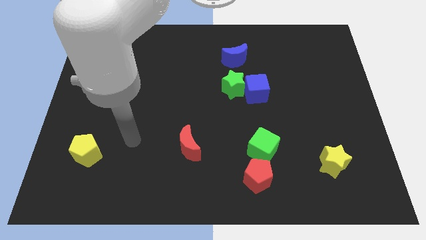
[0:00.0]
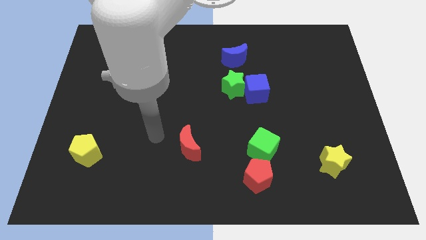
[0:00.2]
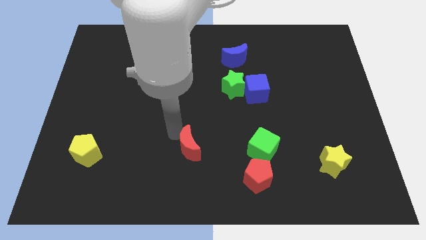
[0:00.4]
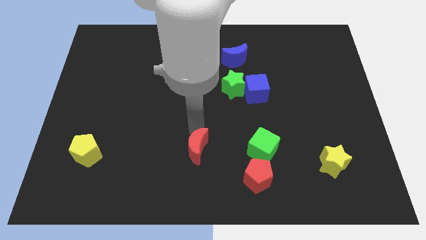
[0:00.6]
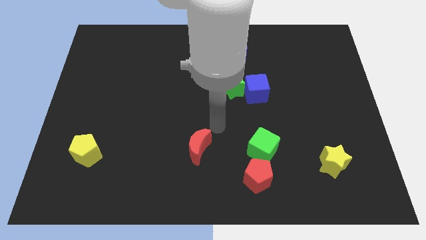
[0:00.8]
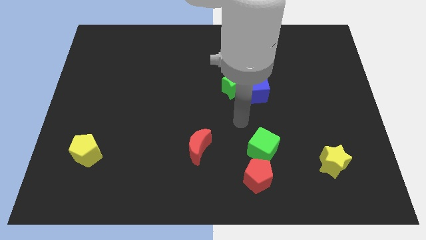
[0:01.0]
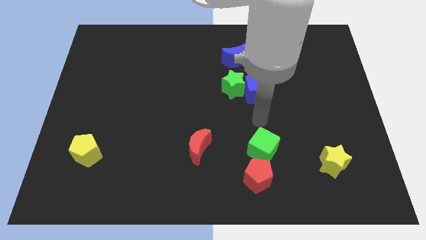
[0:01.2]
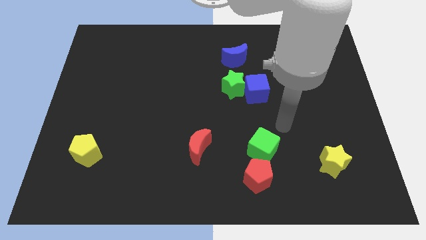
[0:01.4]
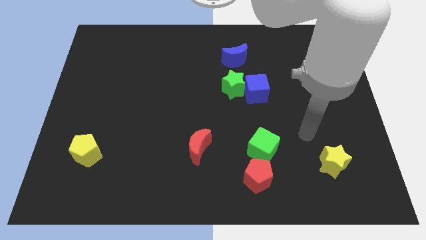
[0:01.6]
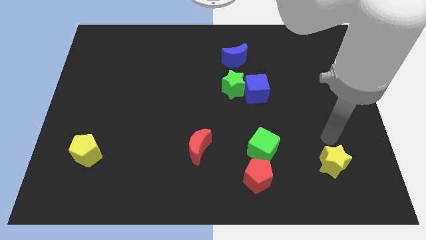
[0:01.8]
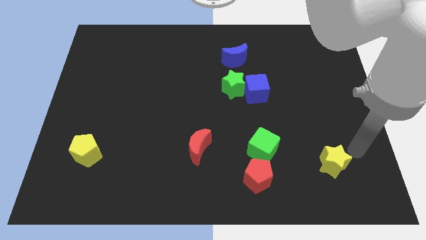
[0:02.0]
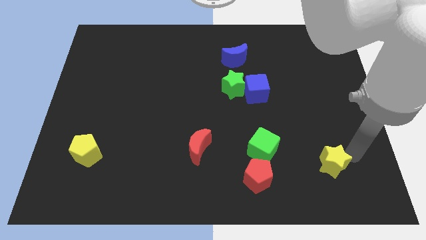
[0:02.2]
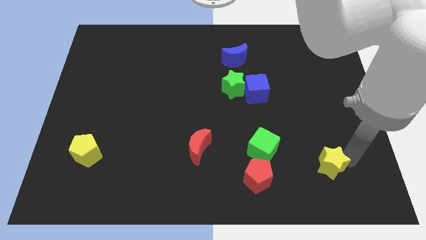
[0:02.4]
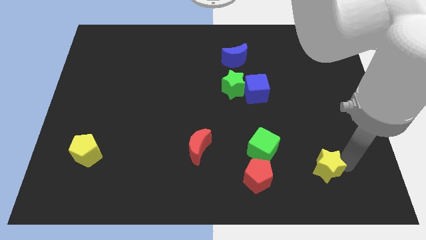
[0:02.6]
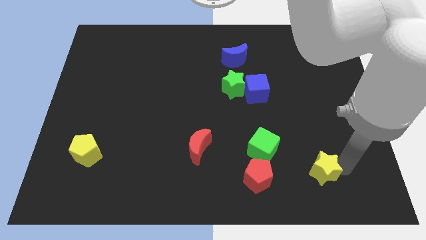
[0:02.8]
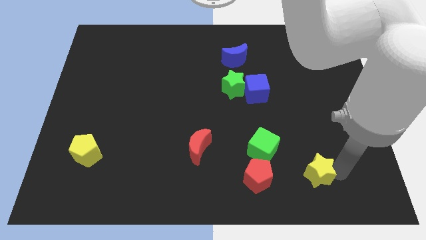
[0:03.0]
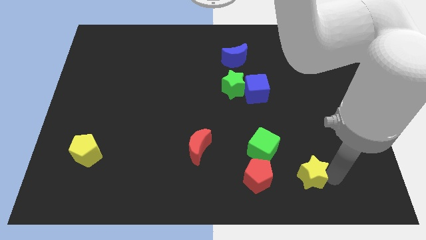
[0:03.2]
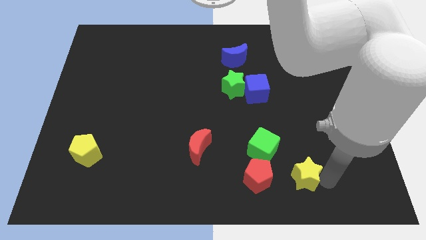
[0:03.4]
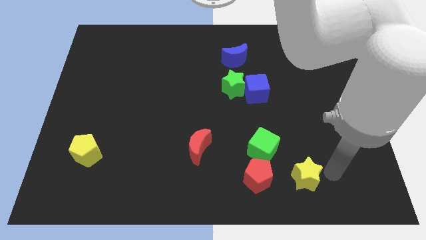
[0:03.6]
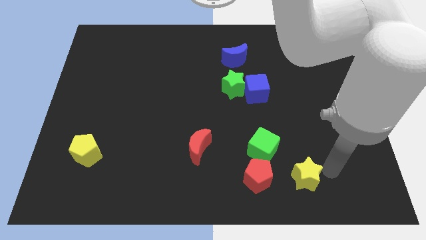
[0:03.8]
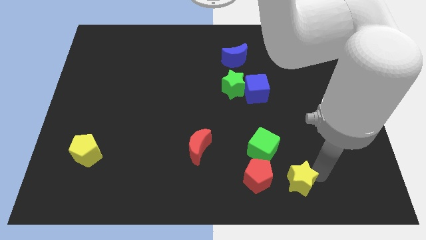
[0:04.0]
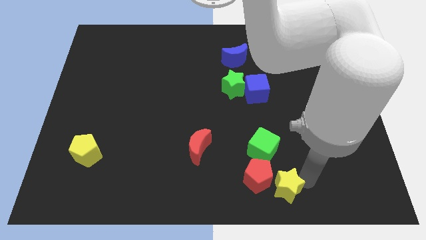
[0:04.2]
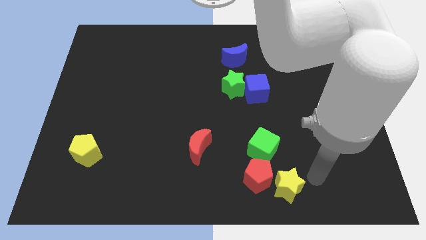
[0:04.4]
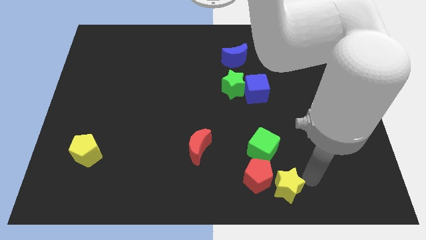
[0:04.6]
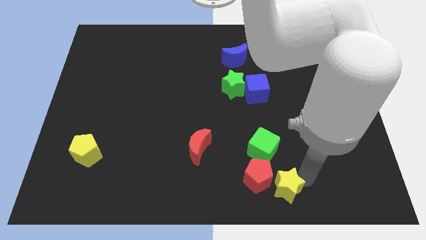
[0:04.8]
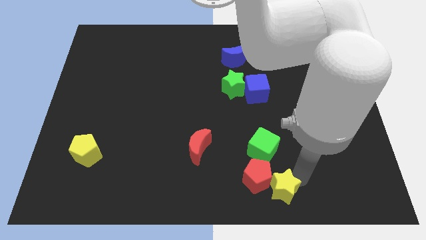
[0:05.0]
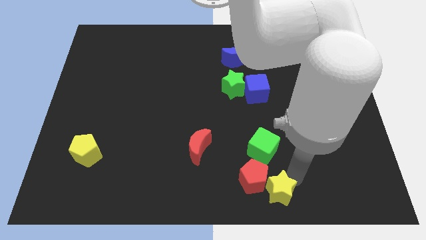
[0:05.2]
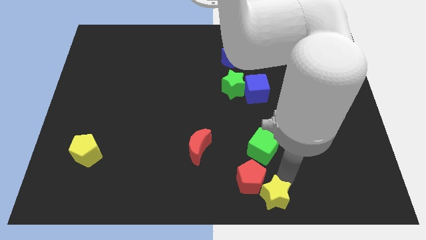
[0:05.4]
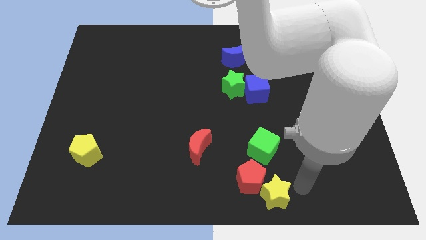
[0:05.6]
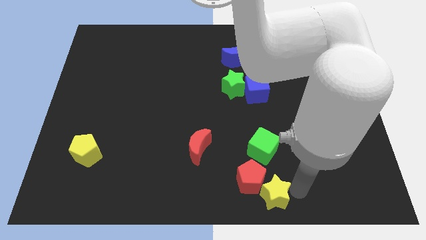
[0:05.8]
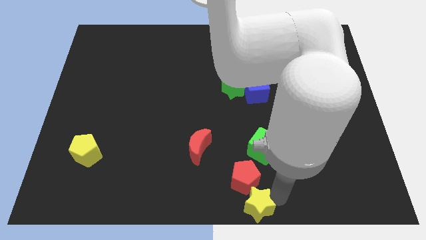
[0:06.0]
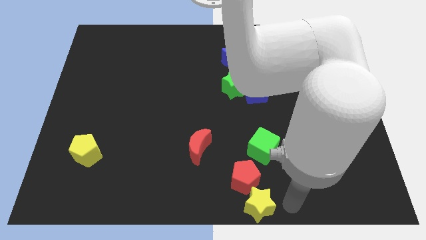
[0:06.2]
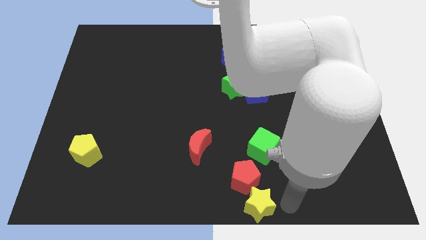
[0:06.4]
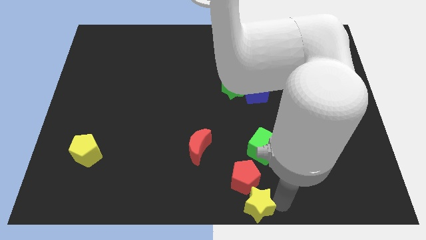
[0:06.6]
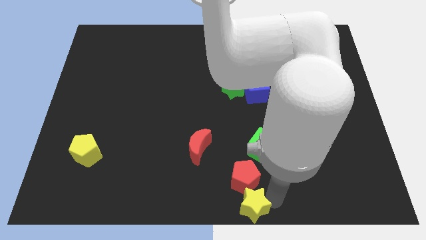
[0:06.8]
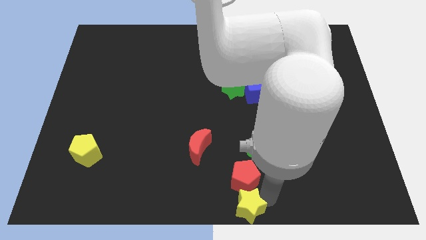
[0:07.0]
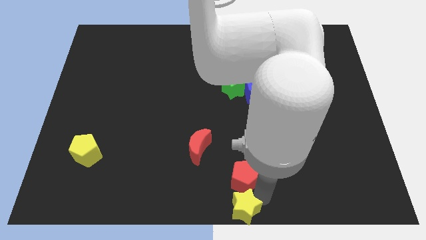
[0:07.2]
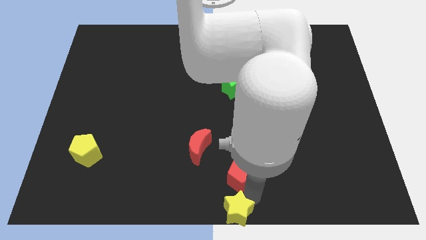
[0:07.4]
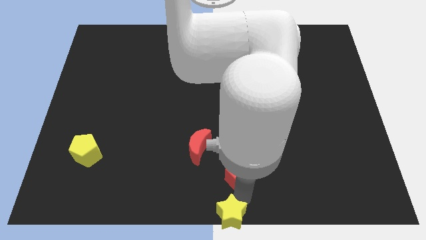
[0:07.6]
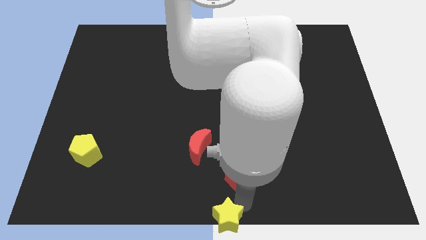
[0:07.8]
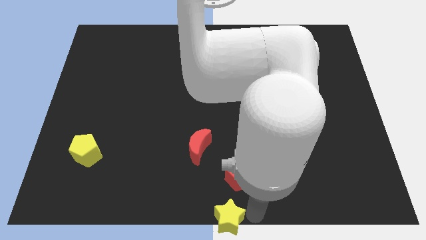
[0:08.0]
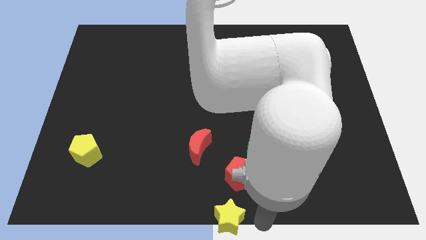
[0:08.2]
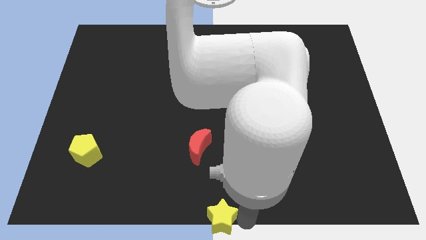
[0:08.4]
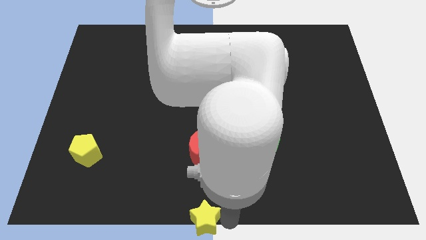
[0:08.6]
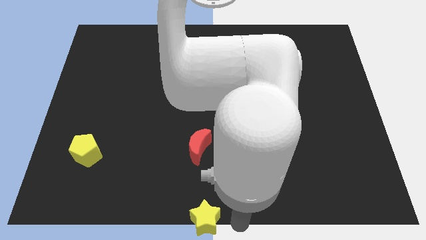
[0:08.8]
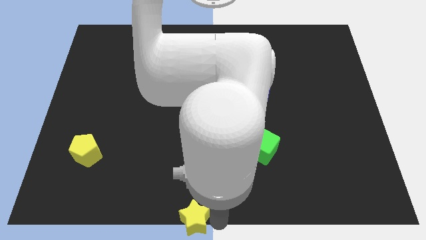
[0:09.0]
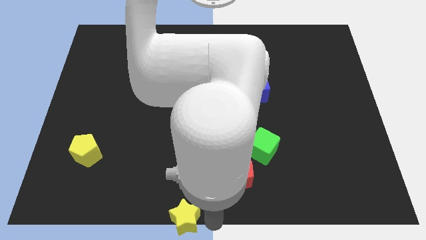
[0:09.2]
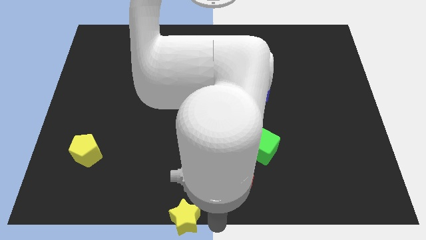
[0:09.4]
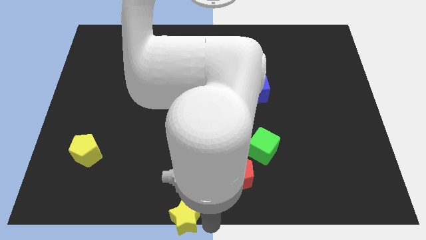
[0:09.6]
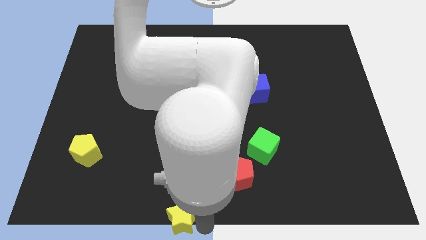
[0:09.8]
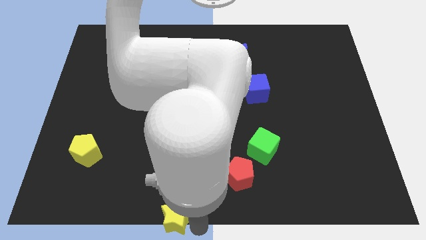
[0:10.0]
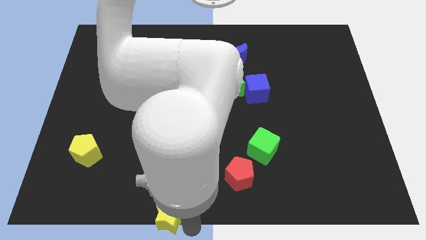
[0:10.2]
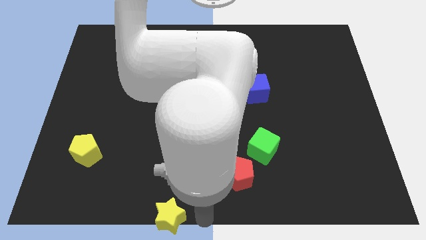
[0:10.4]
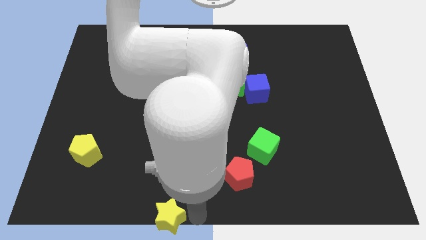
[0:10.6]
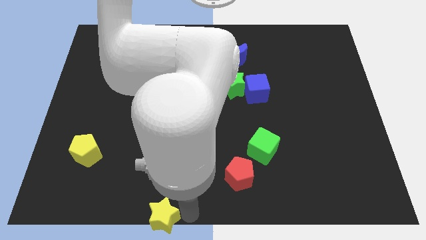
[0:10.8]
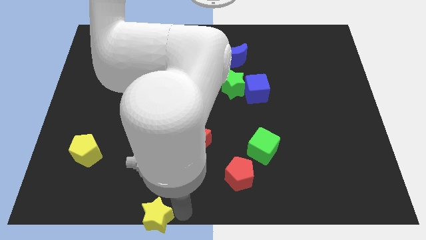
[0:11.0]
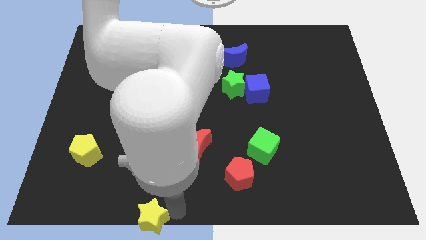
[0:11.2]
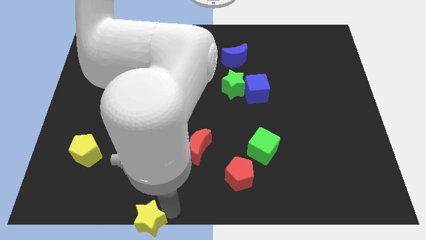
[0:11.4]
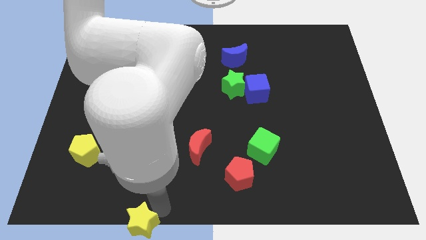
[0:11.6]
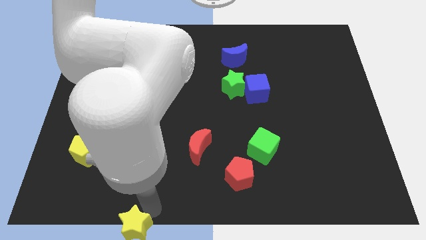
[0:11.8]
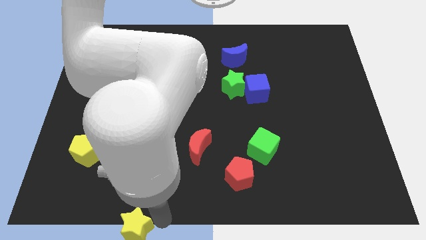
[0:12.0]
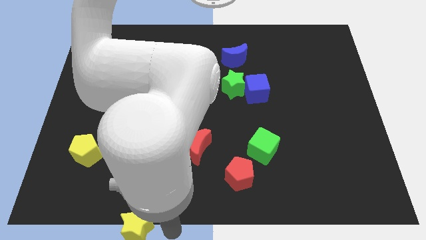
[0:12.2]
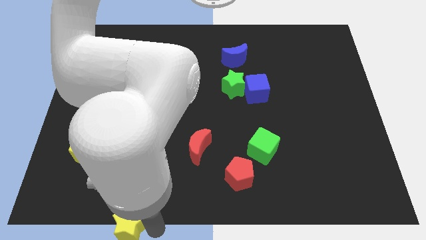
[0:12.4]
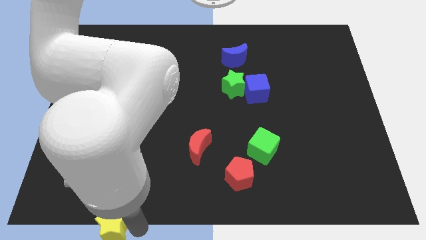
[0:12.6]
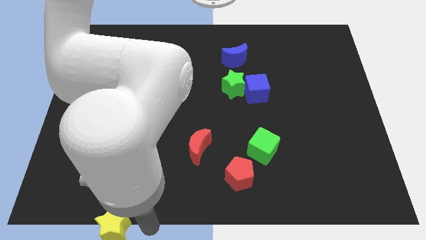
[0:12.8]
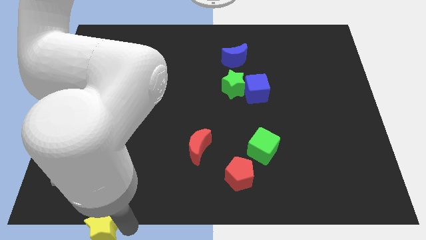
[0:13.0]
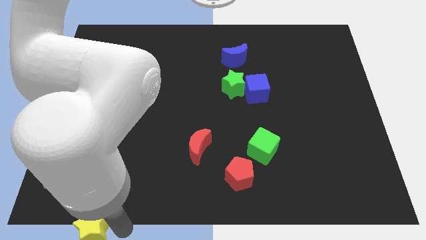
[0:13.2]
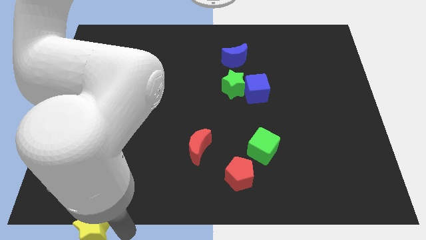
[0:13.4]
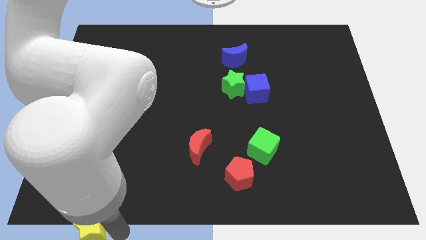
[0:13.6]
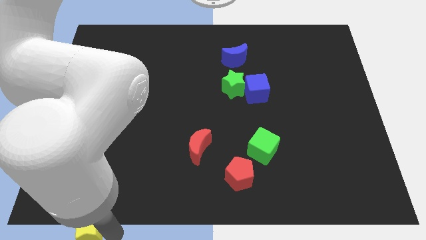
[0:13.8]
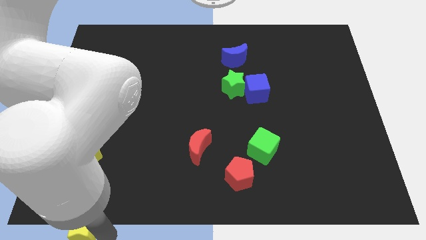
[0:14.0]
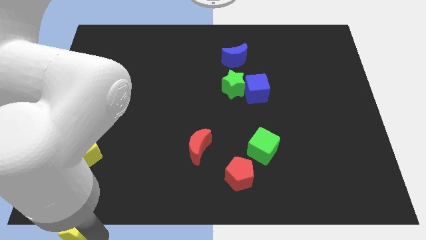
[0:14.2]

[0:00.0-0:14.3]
put the yellow star to the bottom left corner
